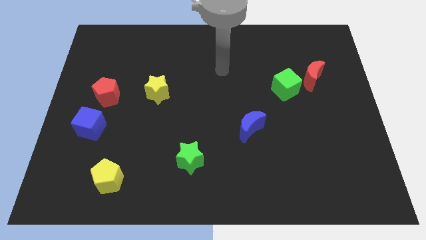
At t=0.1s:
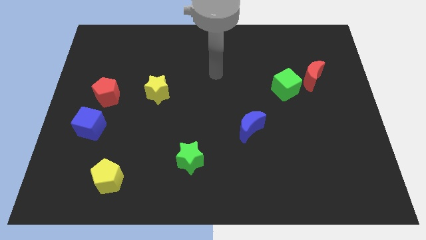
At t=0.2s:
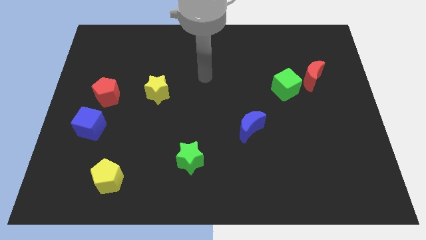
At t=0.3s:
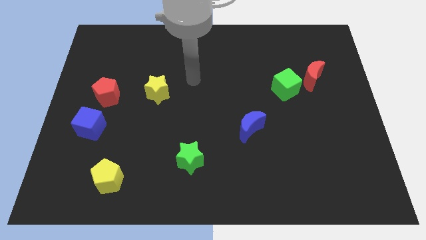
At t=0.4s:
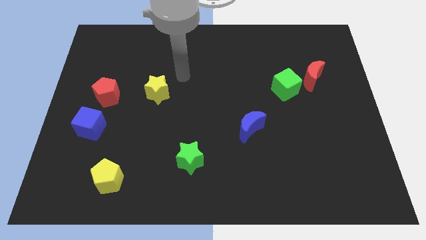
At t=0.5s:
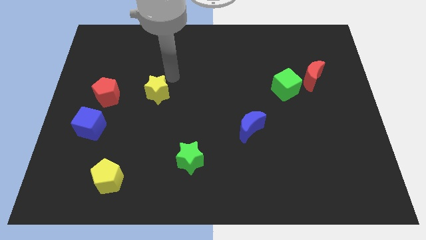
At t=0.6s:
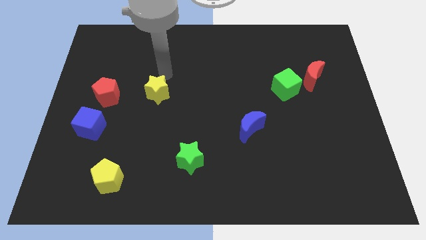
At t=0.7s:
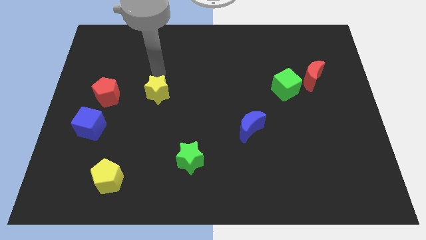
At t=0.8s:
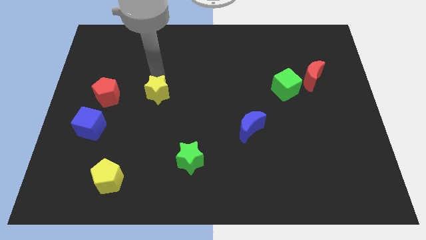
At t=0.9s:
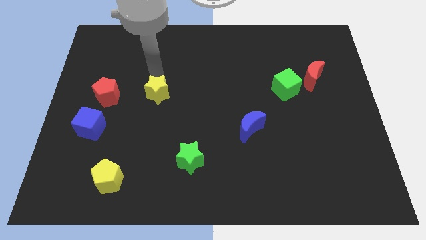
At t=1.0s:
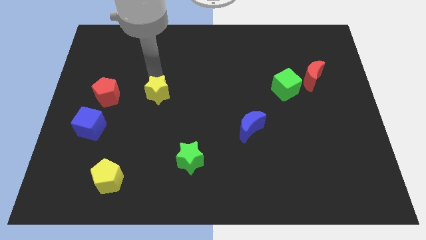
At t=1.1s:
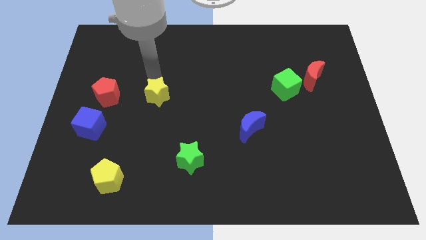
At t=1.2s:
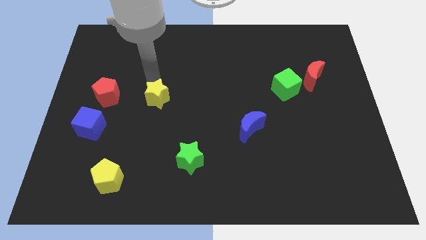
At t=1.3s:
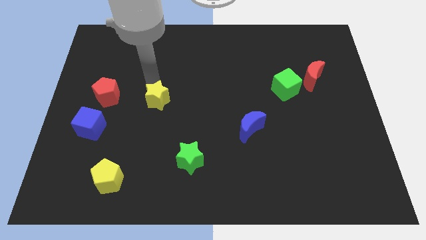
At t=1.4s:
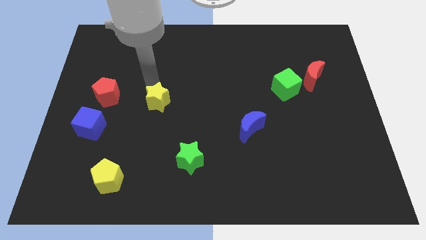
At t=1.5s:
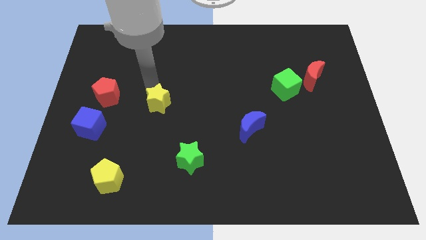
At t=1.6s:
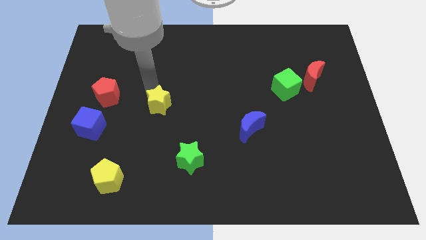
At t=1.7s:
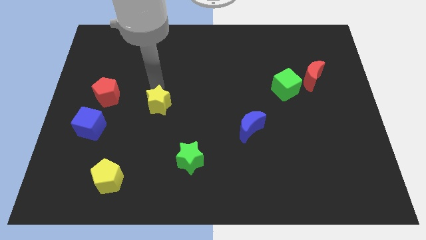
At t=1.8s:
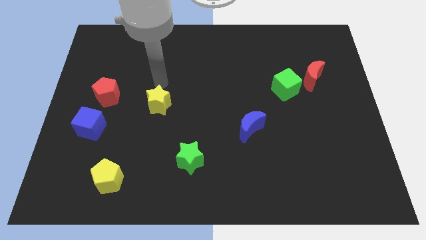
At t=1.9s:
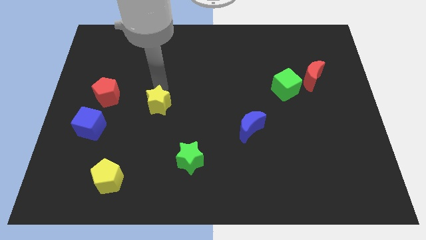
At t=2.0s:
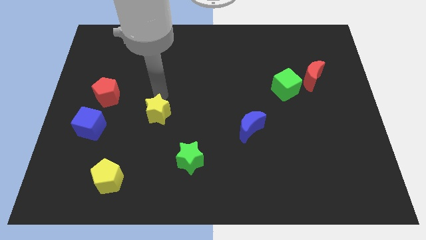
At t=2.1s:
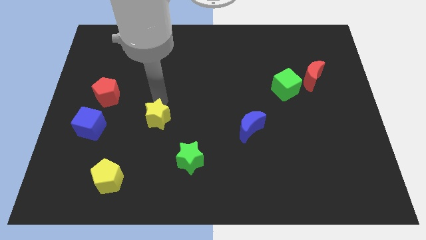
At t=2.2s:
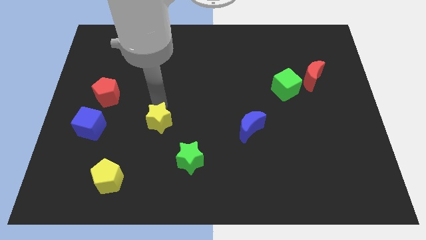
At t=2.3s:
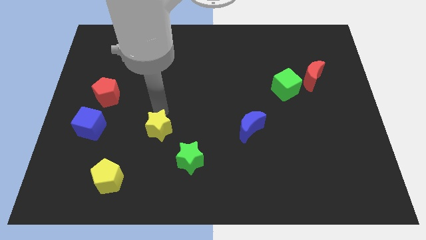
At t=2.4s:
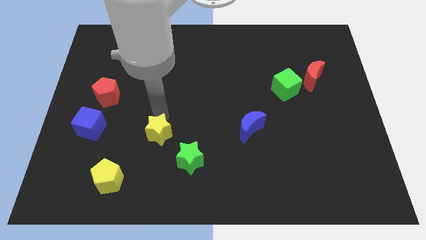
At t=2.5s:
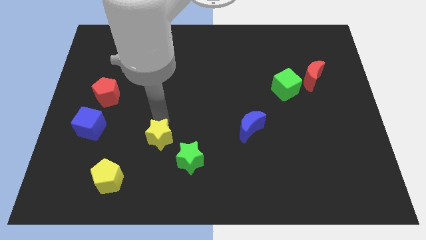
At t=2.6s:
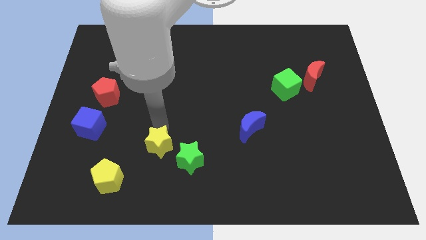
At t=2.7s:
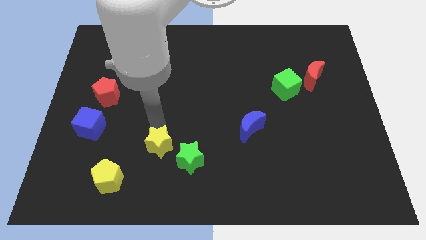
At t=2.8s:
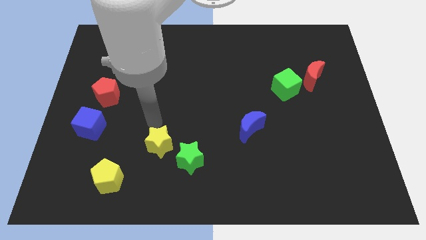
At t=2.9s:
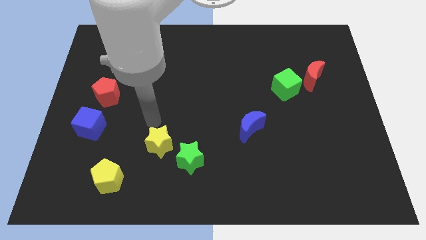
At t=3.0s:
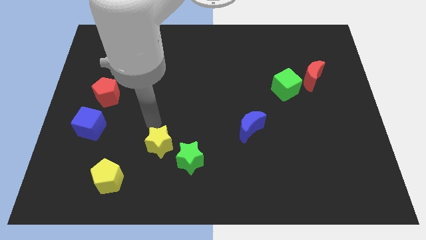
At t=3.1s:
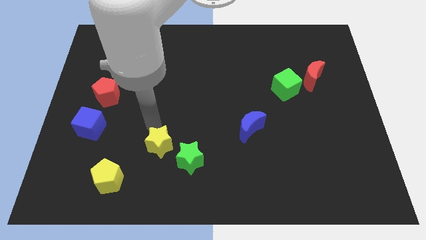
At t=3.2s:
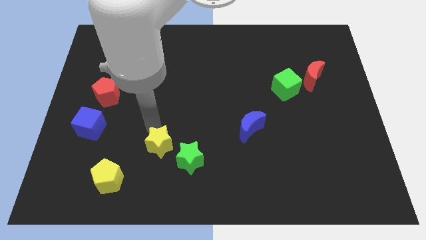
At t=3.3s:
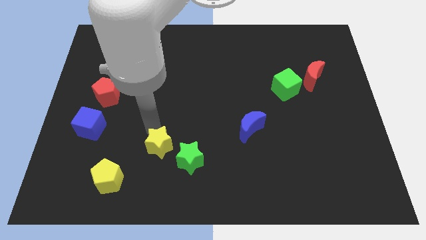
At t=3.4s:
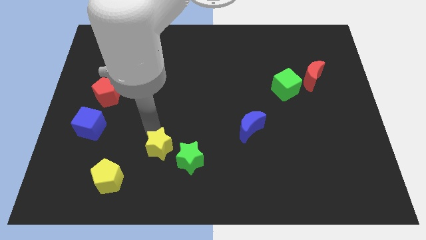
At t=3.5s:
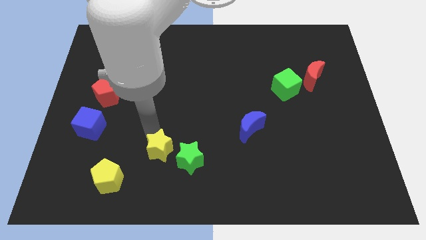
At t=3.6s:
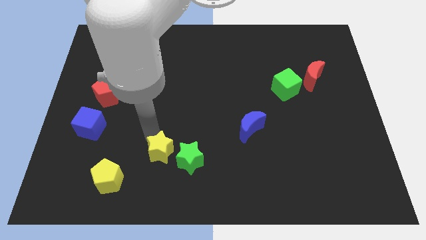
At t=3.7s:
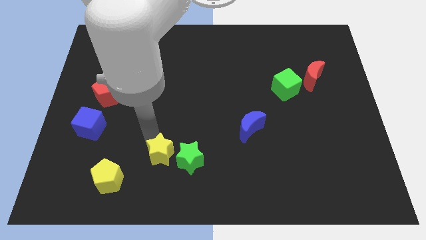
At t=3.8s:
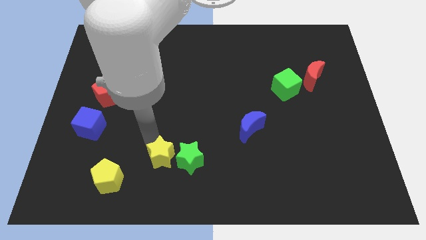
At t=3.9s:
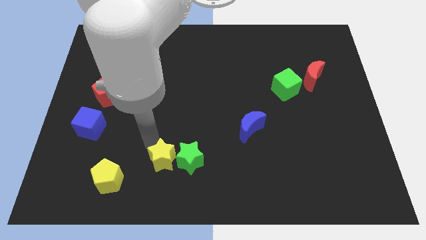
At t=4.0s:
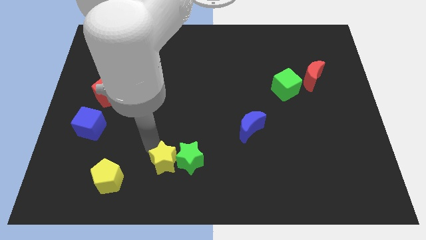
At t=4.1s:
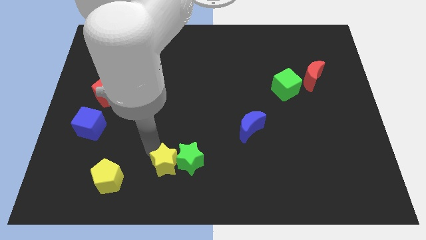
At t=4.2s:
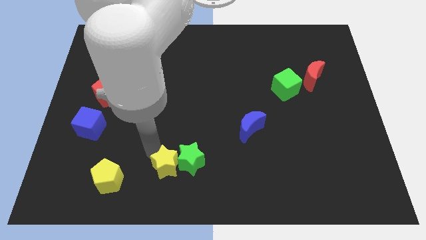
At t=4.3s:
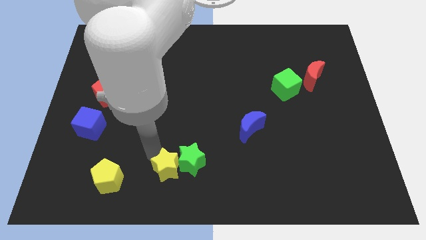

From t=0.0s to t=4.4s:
put the yellow star to the bottom side

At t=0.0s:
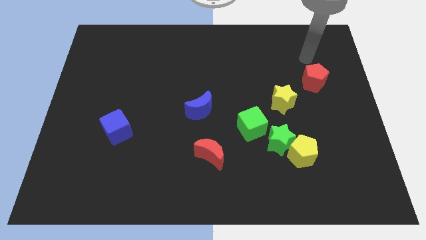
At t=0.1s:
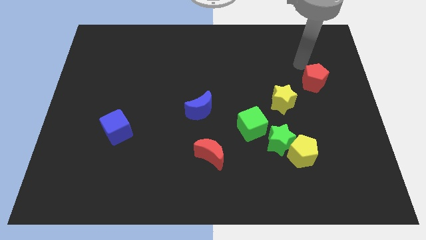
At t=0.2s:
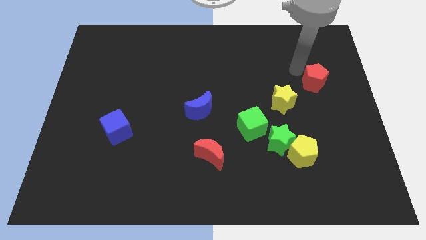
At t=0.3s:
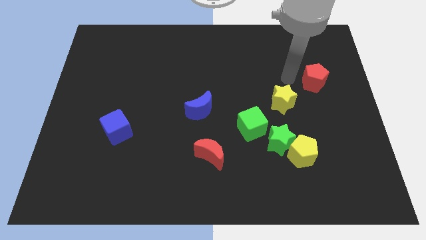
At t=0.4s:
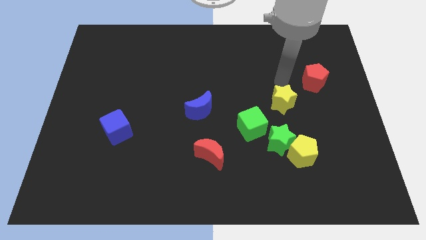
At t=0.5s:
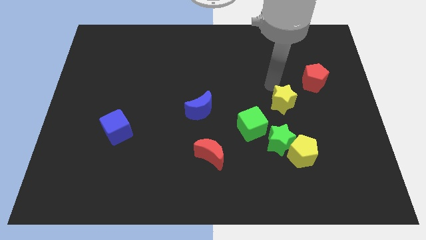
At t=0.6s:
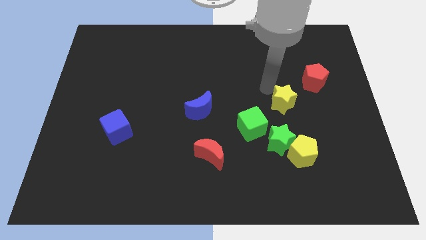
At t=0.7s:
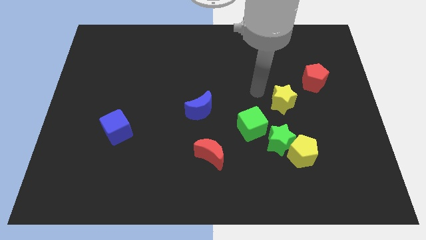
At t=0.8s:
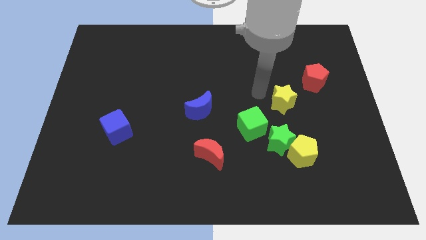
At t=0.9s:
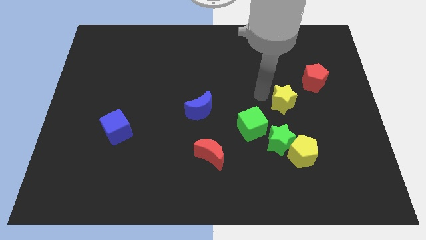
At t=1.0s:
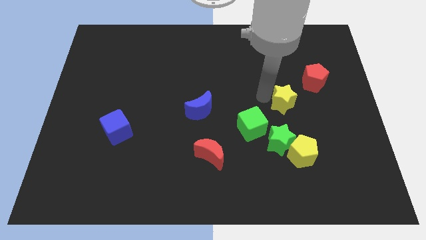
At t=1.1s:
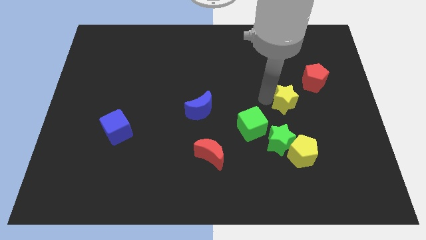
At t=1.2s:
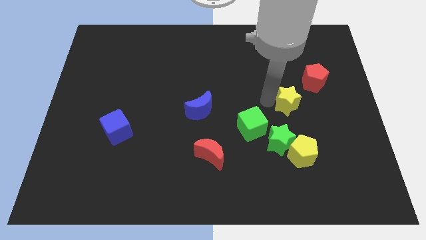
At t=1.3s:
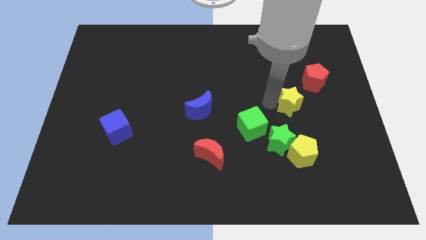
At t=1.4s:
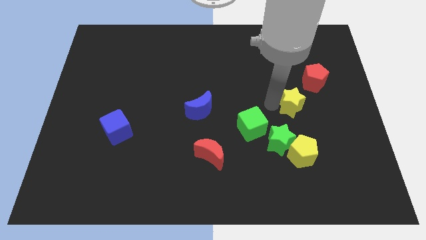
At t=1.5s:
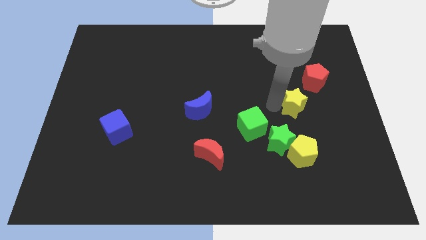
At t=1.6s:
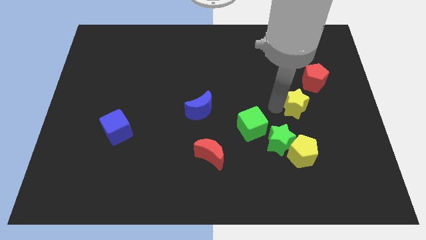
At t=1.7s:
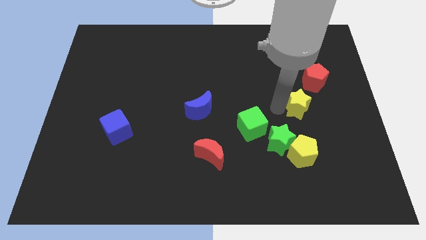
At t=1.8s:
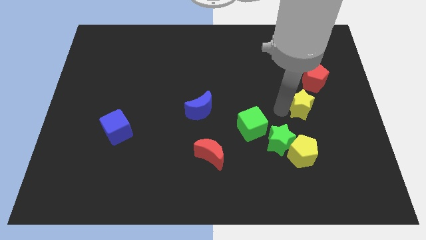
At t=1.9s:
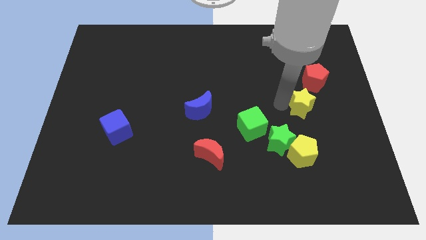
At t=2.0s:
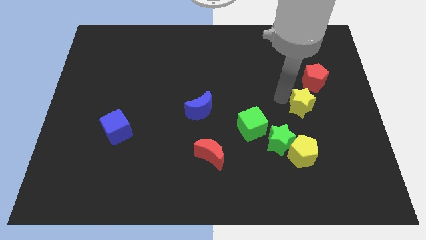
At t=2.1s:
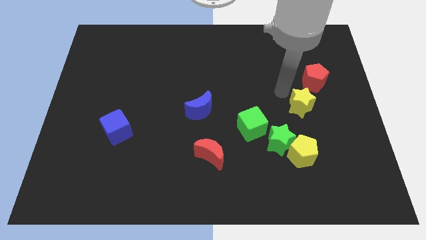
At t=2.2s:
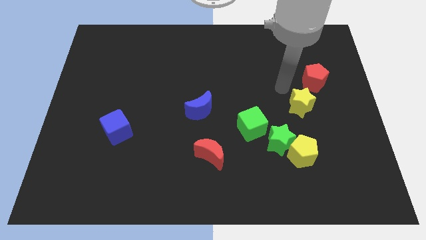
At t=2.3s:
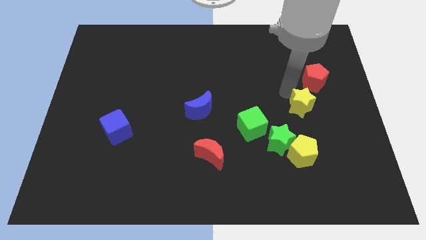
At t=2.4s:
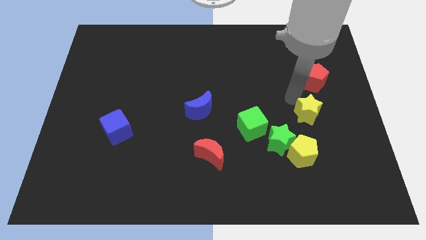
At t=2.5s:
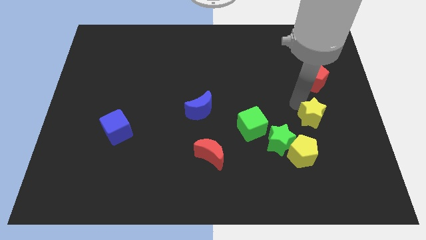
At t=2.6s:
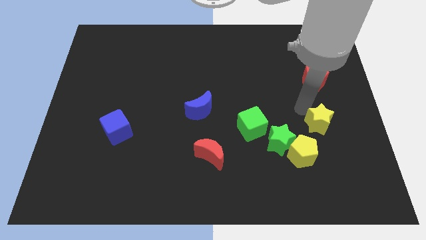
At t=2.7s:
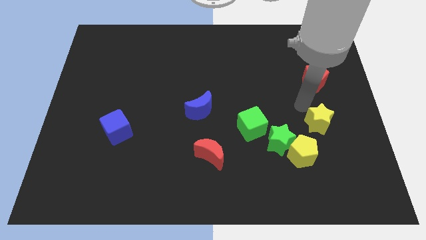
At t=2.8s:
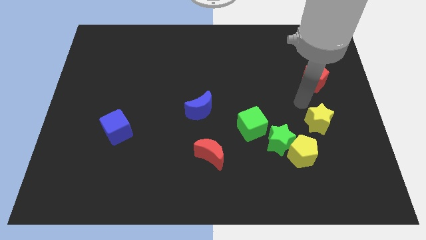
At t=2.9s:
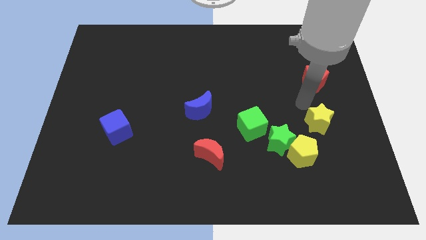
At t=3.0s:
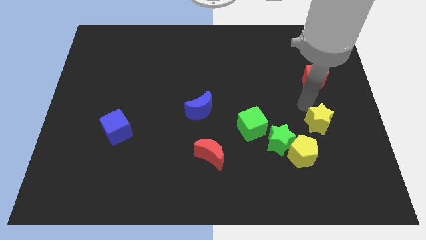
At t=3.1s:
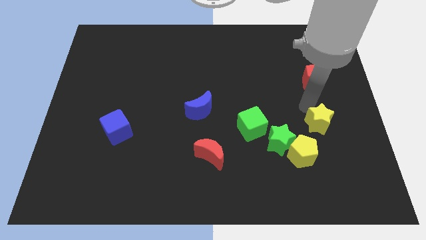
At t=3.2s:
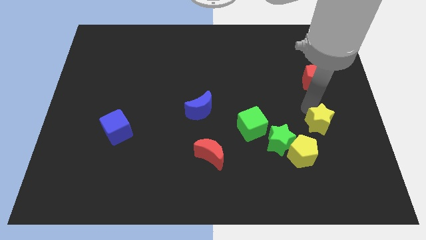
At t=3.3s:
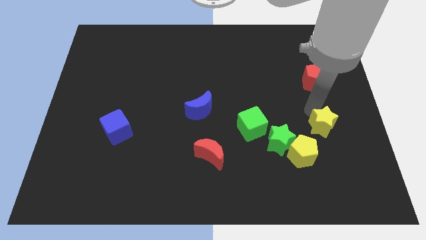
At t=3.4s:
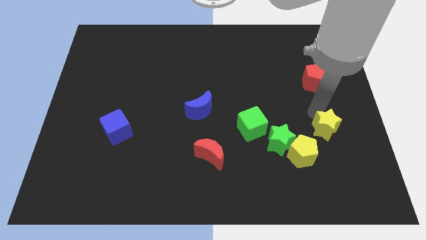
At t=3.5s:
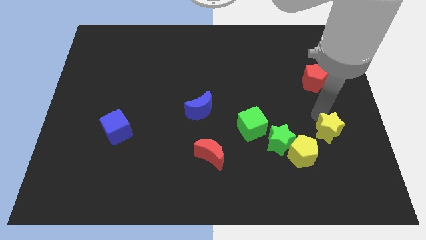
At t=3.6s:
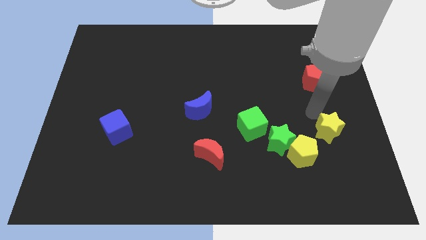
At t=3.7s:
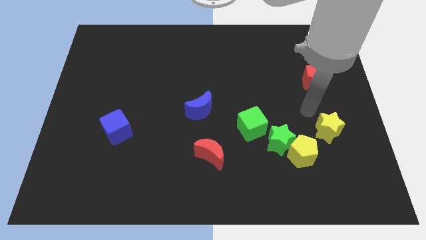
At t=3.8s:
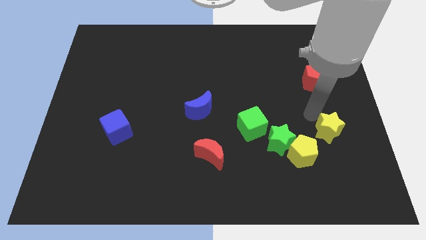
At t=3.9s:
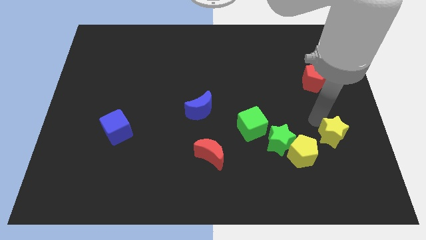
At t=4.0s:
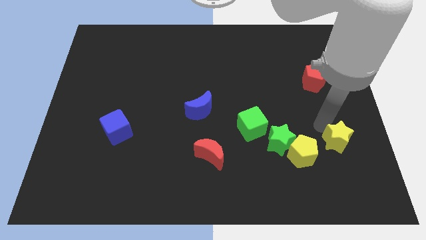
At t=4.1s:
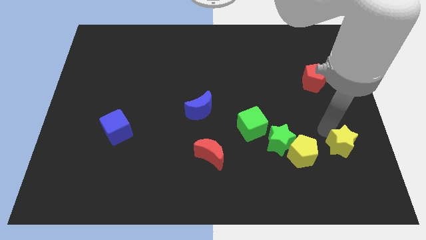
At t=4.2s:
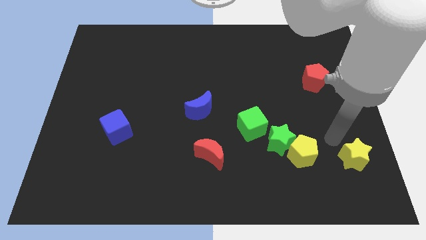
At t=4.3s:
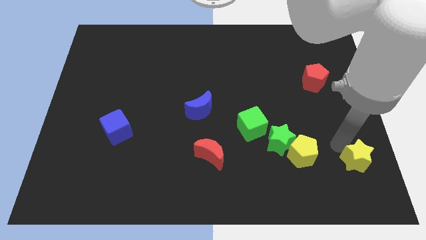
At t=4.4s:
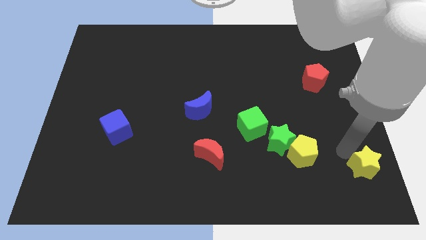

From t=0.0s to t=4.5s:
push the yellow star to the bottom right of the board
